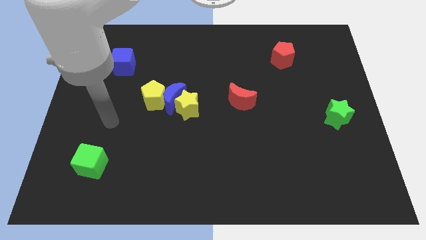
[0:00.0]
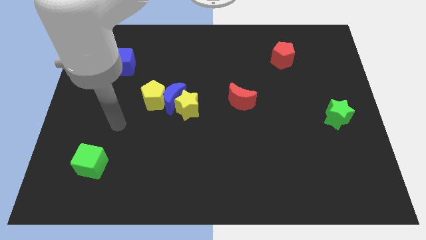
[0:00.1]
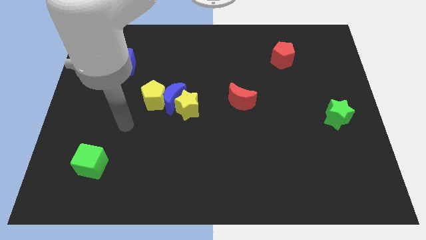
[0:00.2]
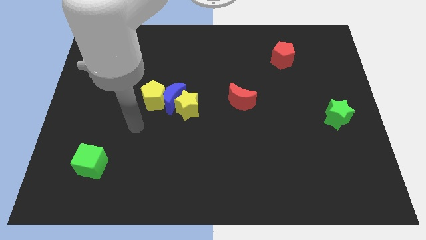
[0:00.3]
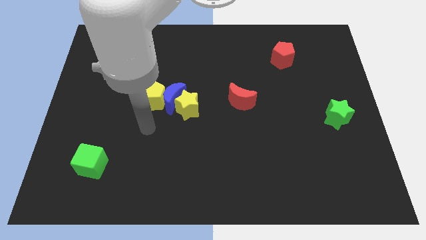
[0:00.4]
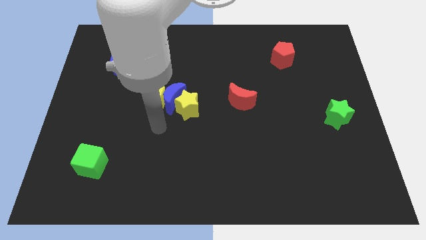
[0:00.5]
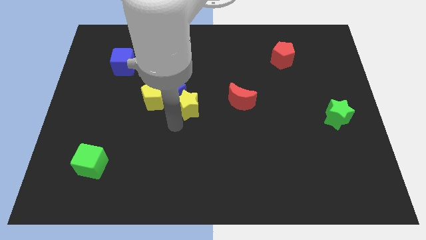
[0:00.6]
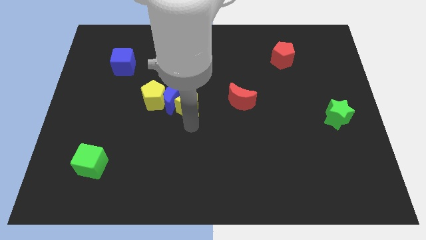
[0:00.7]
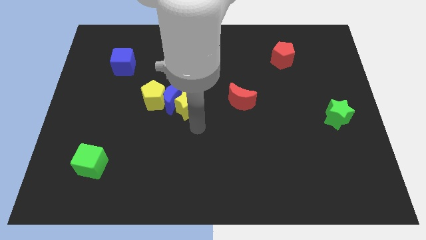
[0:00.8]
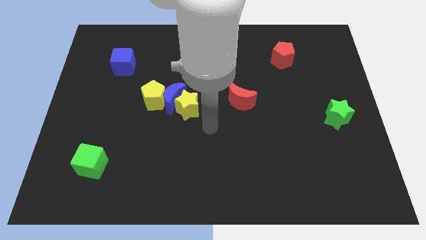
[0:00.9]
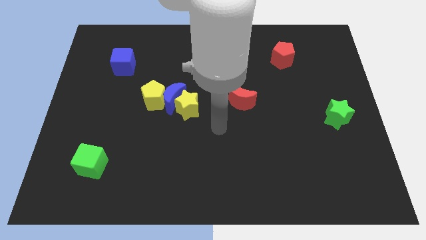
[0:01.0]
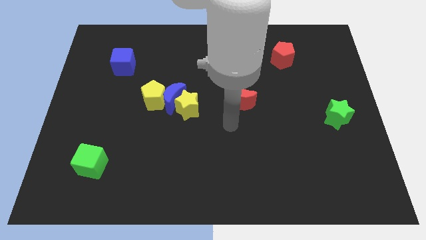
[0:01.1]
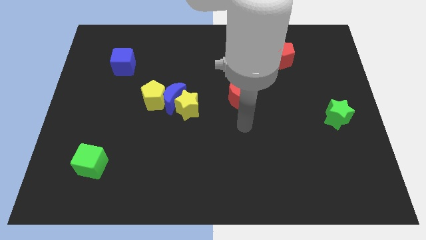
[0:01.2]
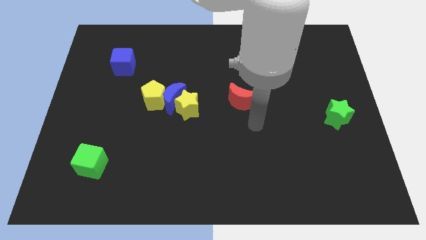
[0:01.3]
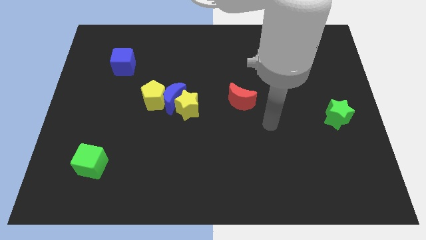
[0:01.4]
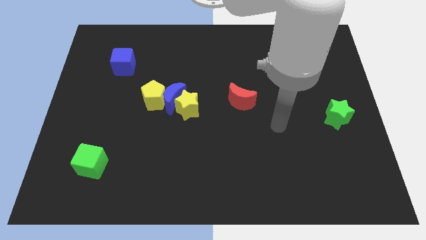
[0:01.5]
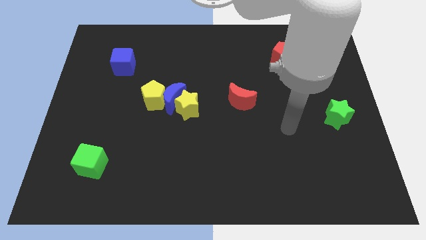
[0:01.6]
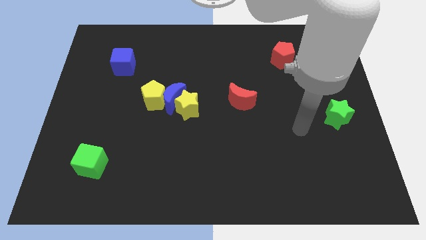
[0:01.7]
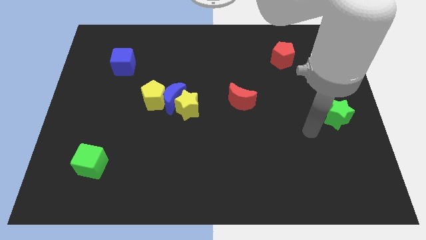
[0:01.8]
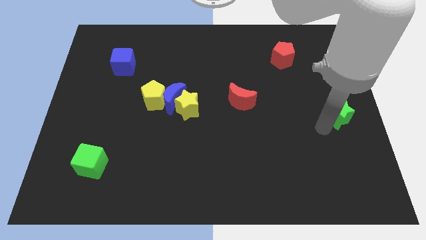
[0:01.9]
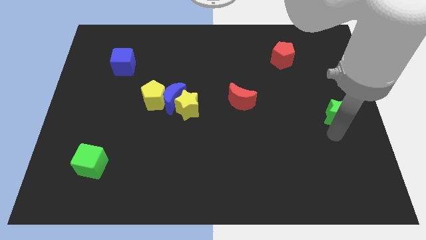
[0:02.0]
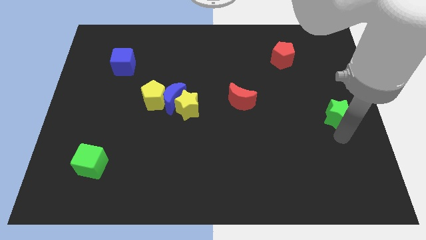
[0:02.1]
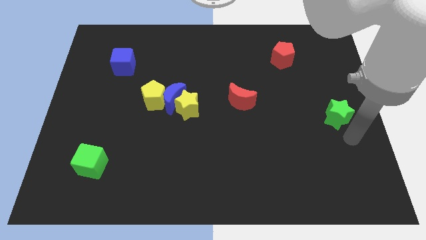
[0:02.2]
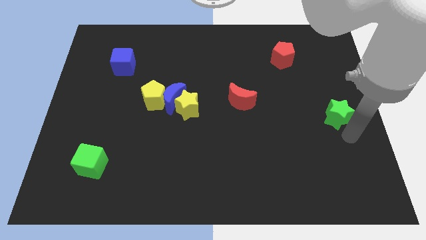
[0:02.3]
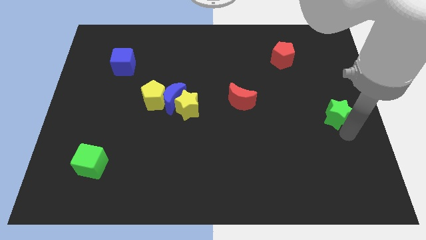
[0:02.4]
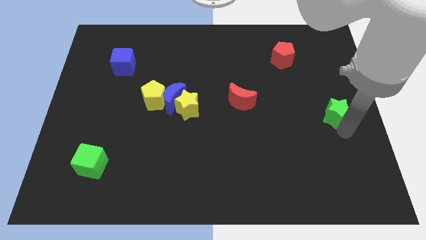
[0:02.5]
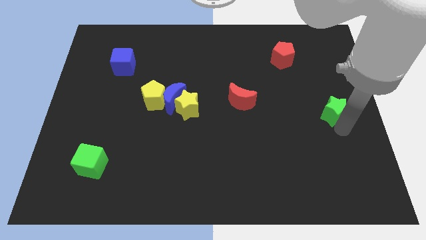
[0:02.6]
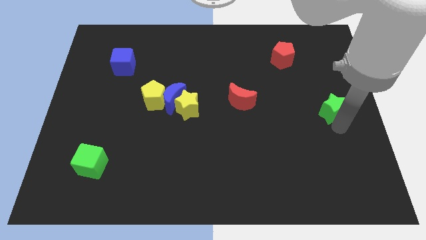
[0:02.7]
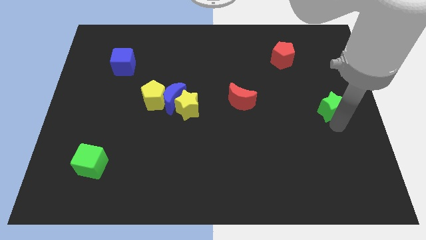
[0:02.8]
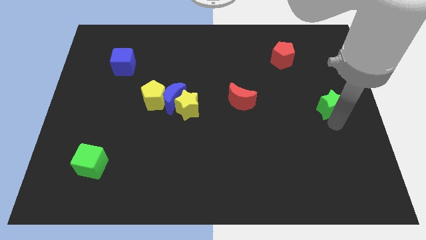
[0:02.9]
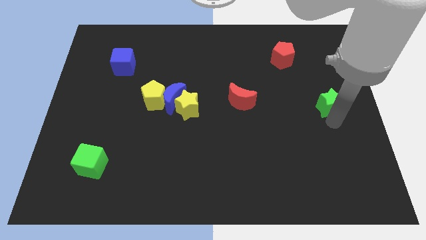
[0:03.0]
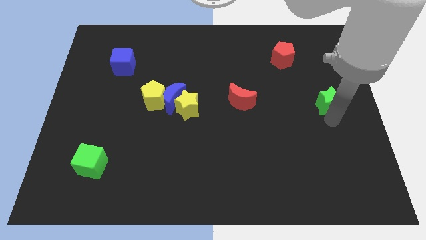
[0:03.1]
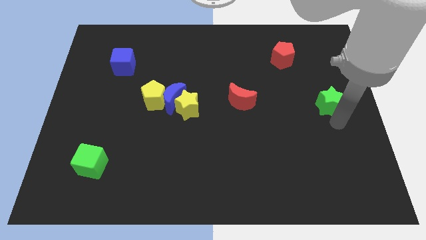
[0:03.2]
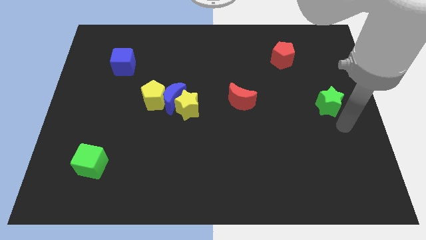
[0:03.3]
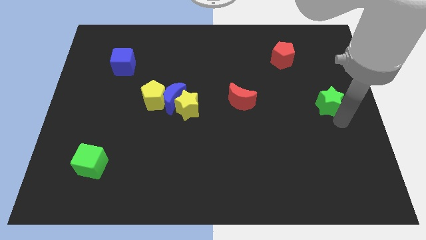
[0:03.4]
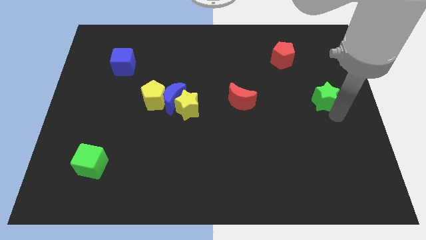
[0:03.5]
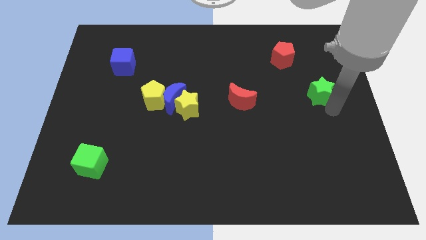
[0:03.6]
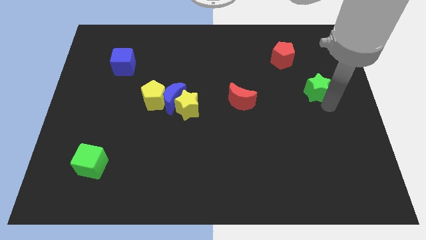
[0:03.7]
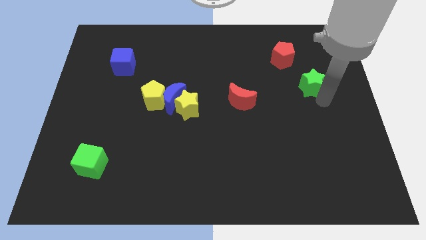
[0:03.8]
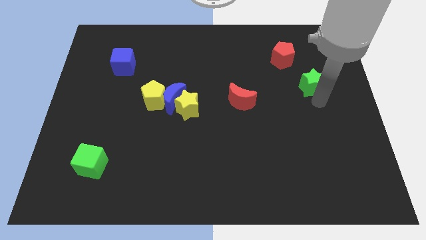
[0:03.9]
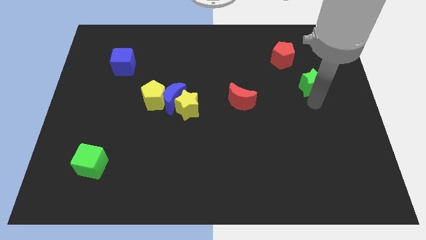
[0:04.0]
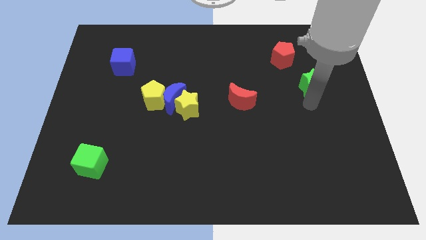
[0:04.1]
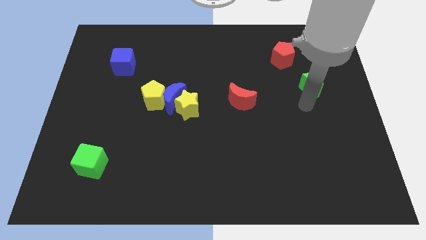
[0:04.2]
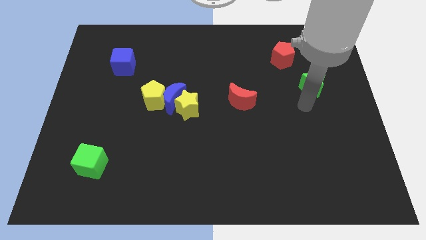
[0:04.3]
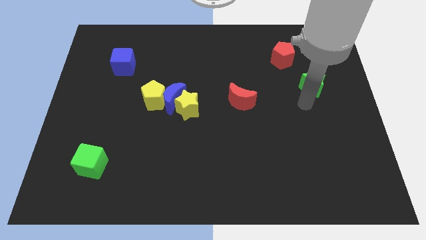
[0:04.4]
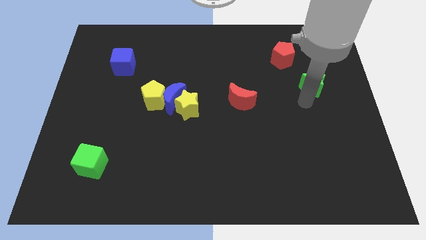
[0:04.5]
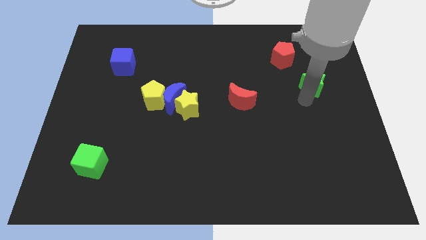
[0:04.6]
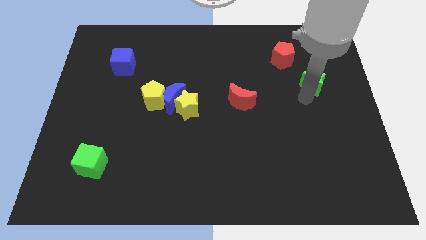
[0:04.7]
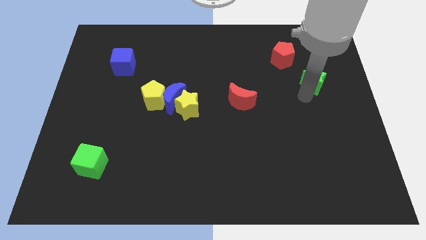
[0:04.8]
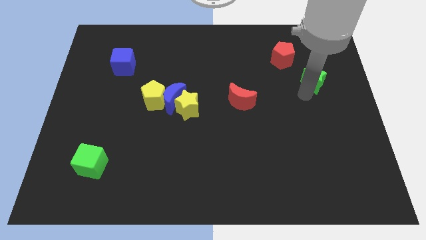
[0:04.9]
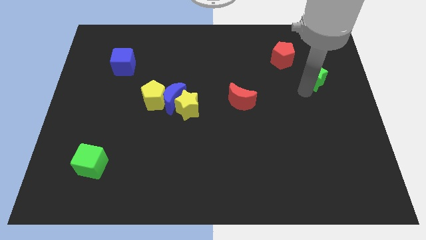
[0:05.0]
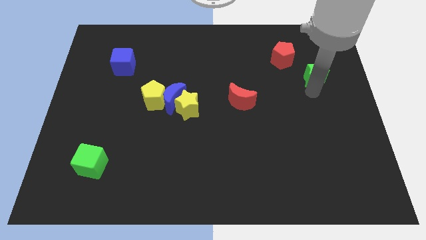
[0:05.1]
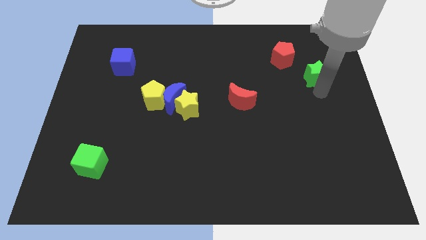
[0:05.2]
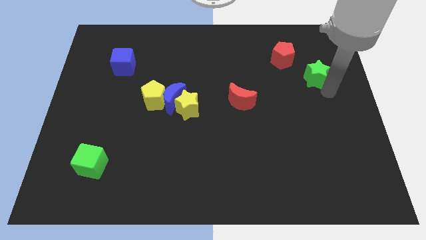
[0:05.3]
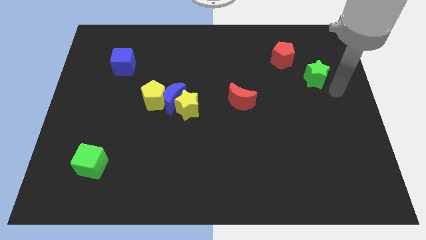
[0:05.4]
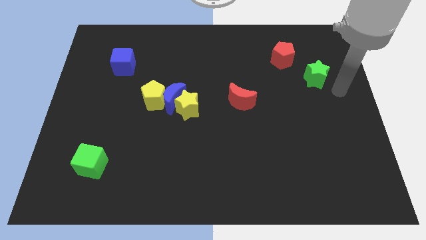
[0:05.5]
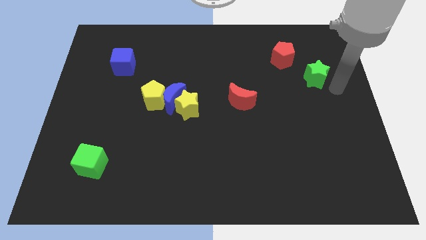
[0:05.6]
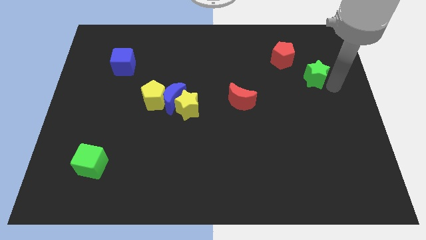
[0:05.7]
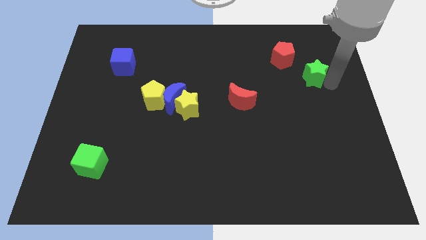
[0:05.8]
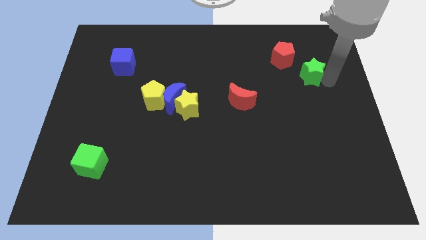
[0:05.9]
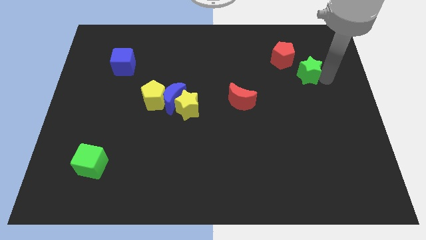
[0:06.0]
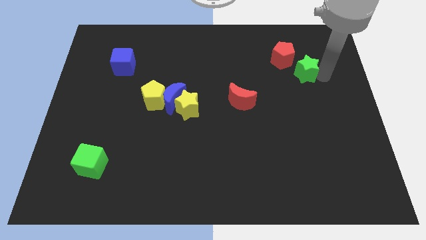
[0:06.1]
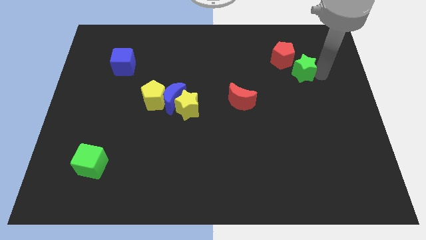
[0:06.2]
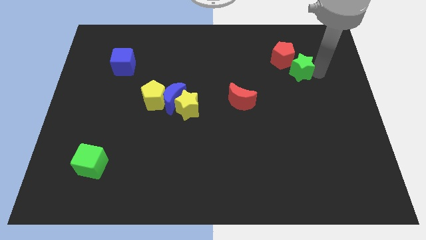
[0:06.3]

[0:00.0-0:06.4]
slide the green star to the red pentagon

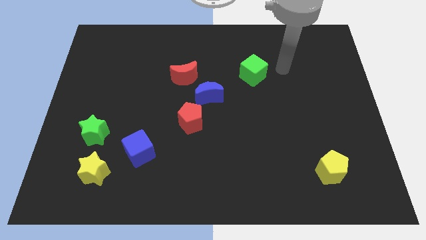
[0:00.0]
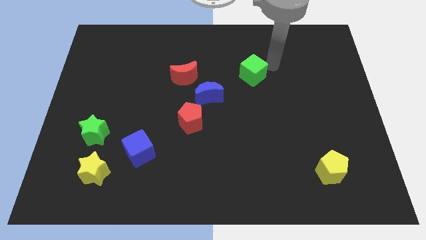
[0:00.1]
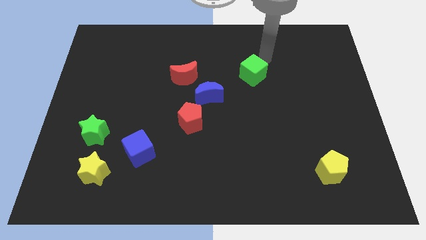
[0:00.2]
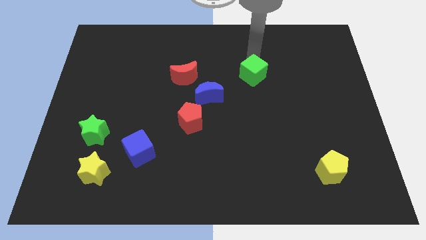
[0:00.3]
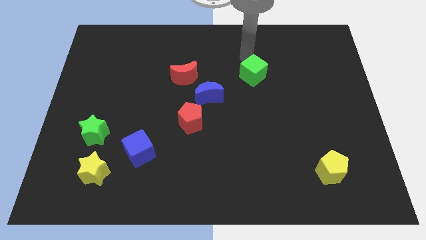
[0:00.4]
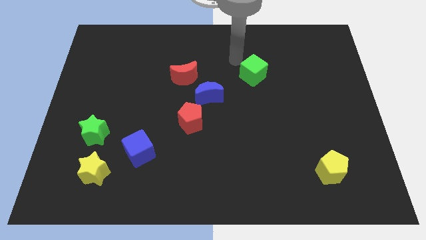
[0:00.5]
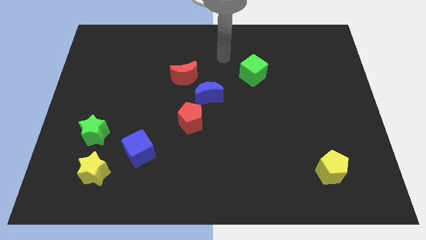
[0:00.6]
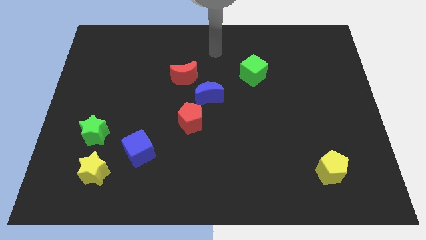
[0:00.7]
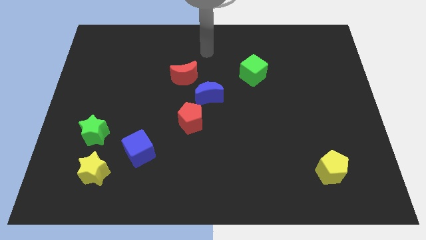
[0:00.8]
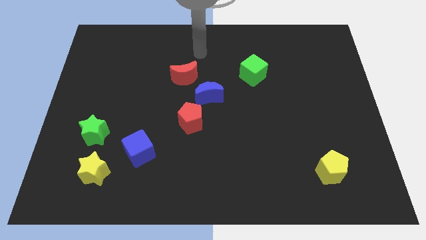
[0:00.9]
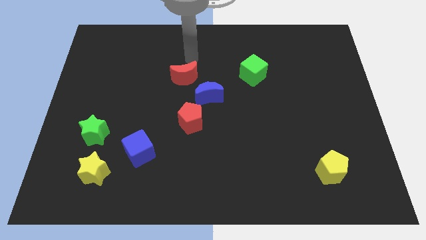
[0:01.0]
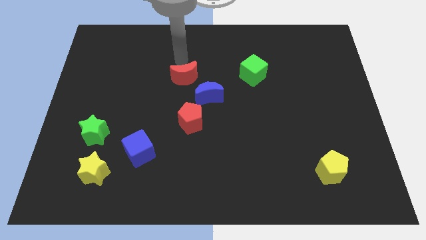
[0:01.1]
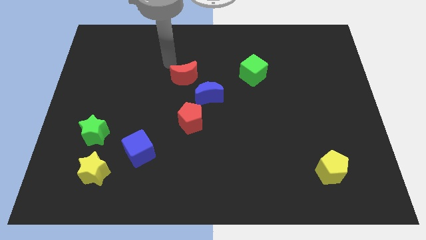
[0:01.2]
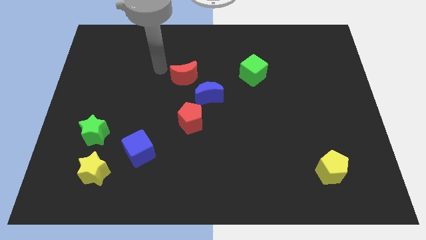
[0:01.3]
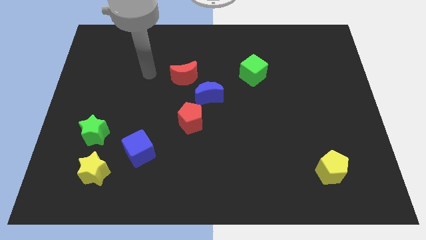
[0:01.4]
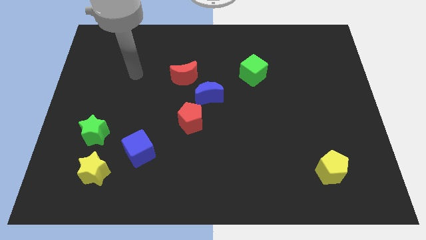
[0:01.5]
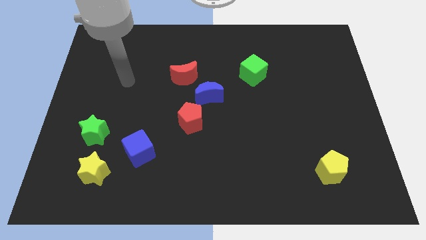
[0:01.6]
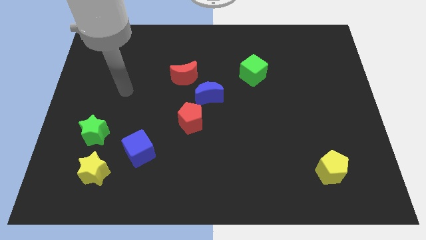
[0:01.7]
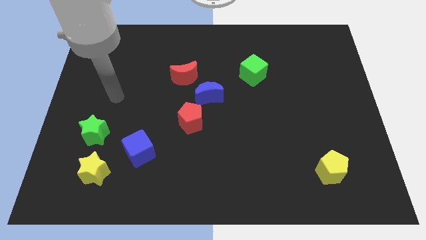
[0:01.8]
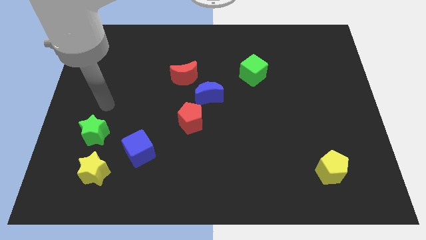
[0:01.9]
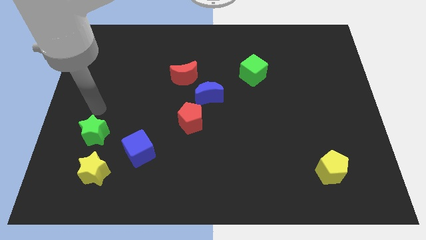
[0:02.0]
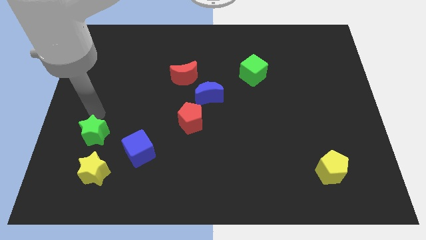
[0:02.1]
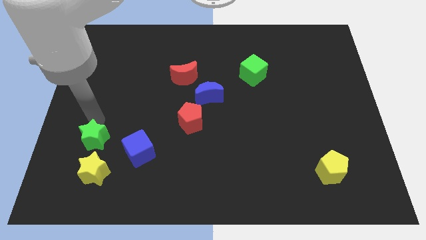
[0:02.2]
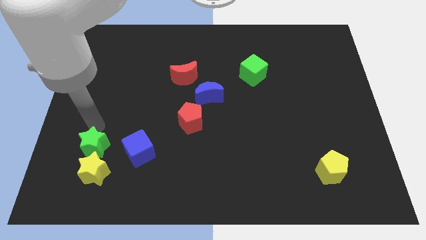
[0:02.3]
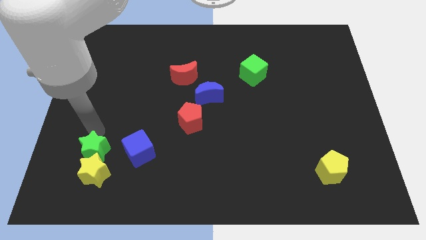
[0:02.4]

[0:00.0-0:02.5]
put the green star towards the yellow star
